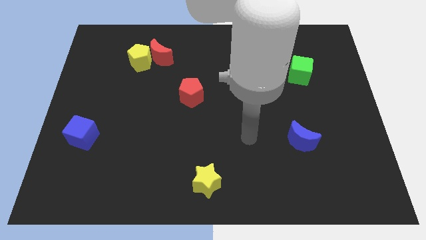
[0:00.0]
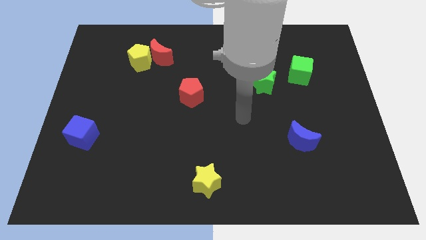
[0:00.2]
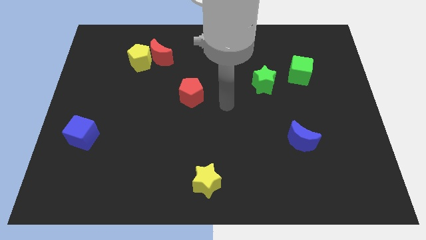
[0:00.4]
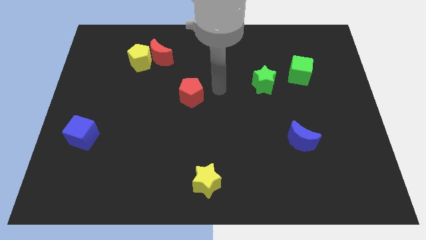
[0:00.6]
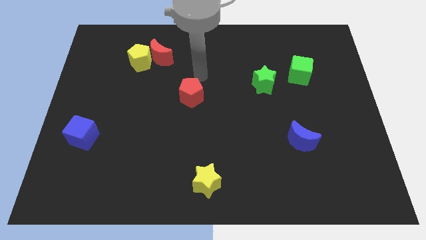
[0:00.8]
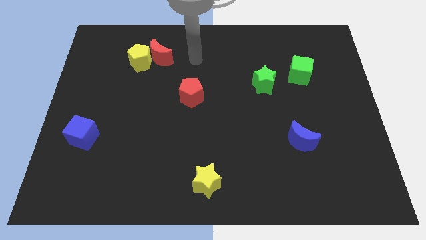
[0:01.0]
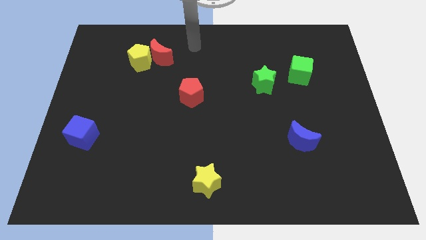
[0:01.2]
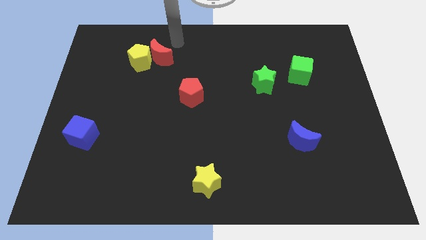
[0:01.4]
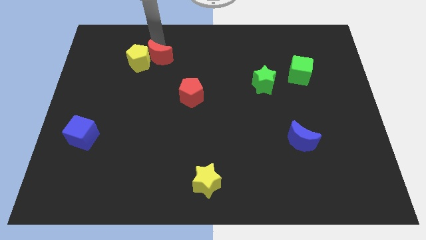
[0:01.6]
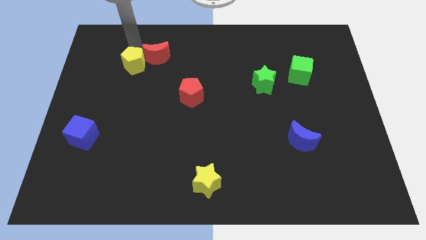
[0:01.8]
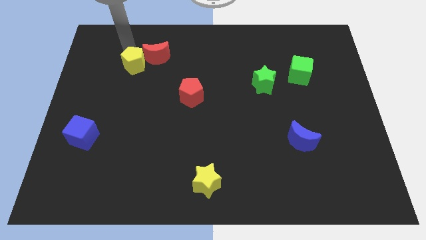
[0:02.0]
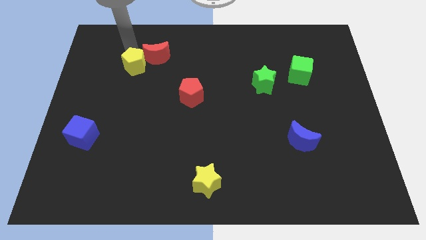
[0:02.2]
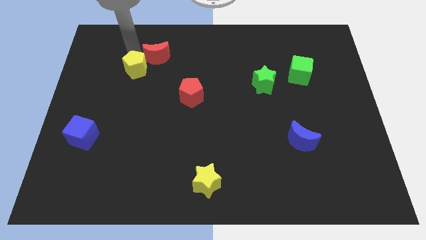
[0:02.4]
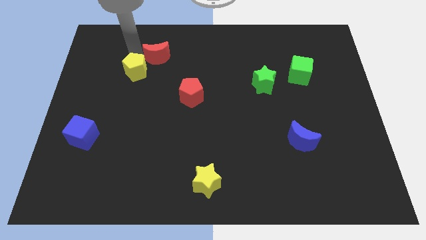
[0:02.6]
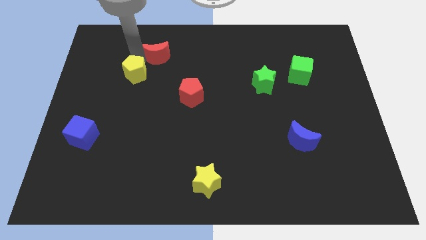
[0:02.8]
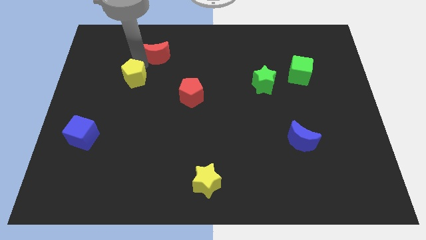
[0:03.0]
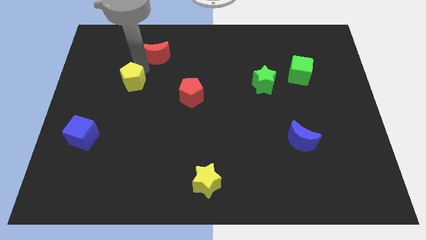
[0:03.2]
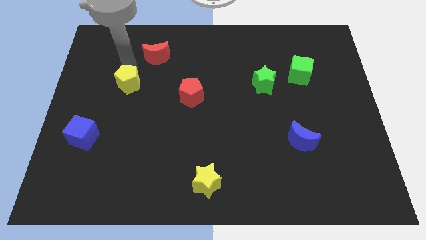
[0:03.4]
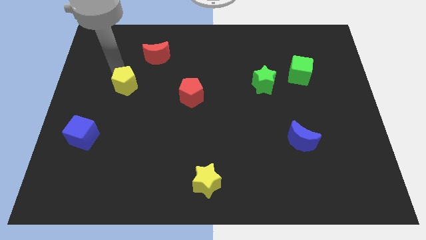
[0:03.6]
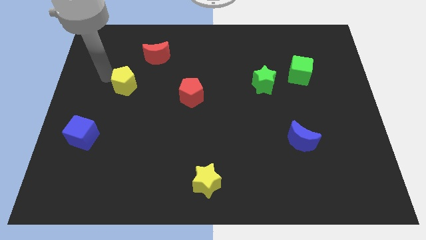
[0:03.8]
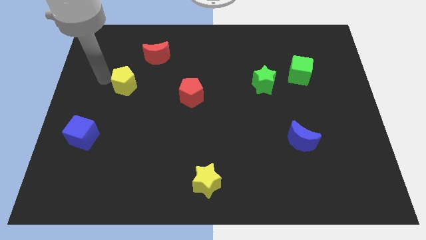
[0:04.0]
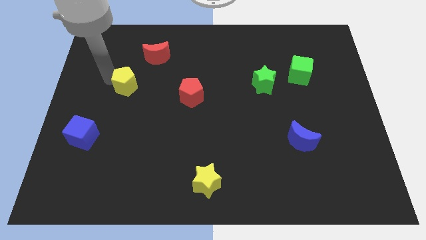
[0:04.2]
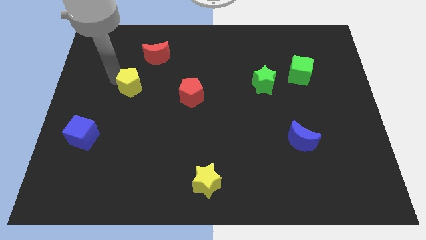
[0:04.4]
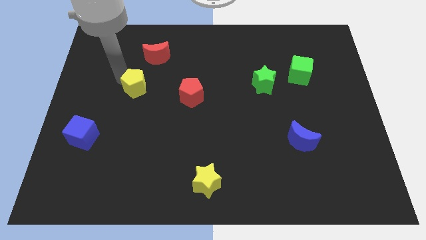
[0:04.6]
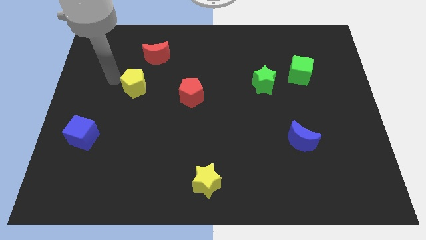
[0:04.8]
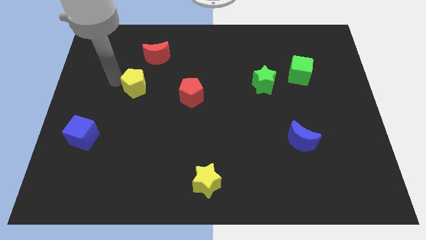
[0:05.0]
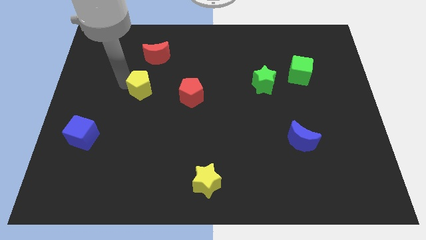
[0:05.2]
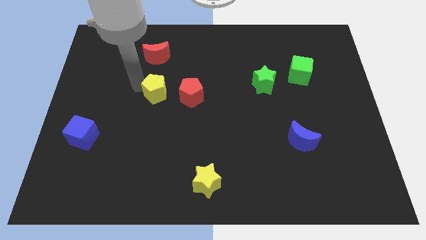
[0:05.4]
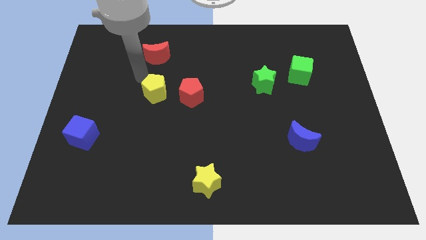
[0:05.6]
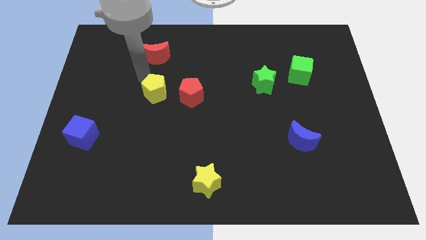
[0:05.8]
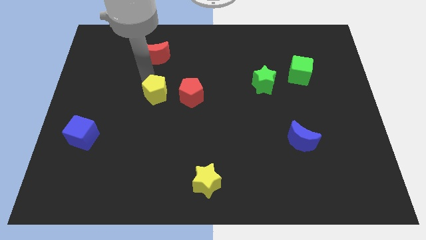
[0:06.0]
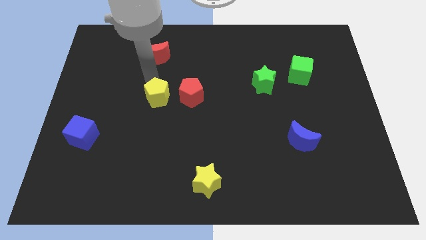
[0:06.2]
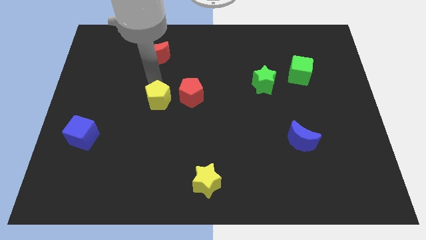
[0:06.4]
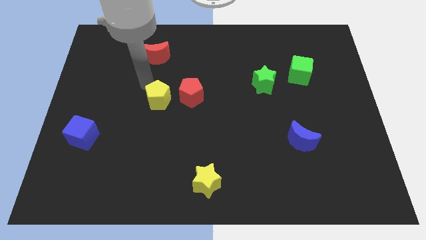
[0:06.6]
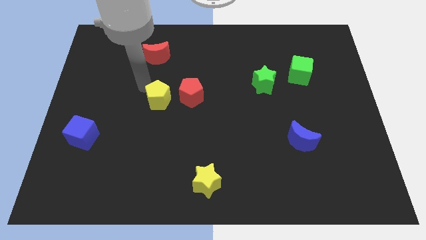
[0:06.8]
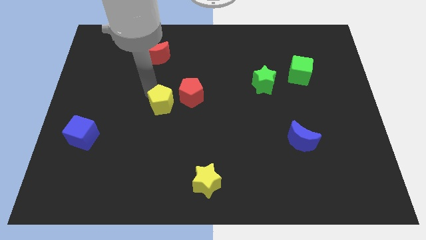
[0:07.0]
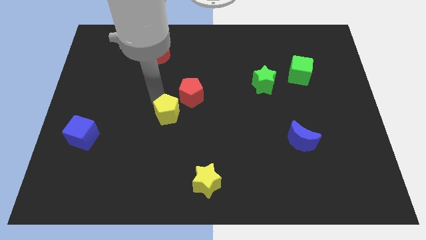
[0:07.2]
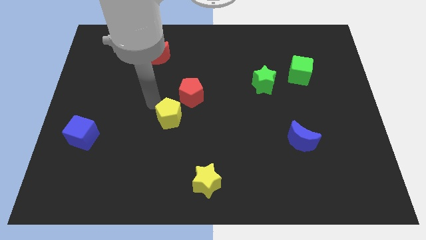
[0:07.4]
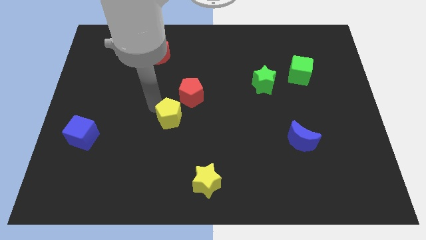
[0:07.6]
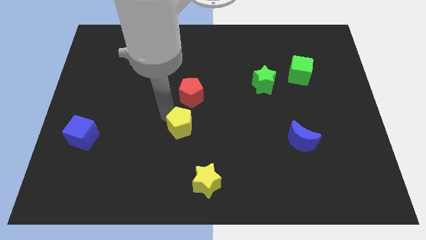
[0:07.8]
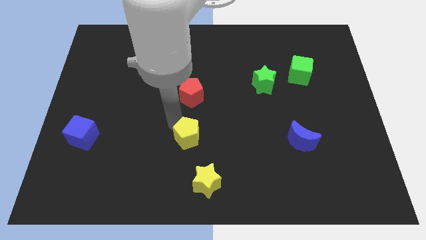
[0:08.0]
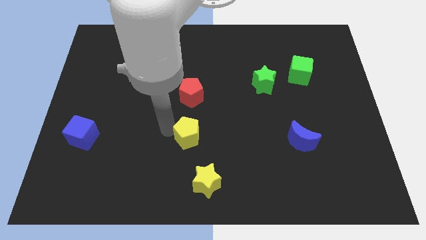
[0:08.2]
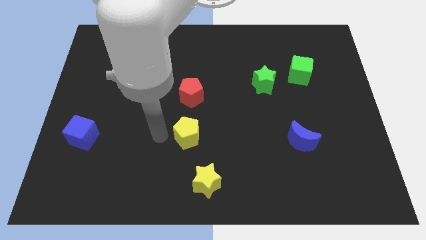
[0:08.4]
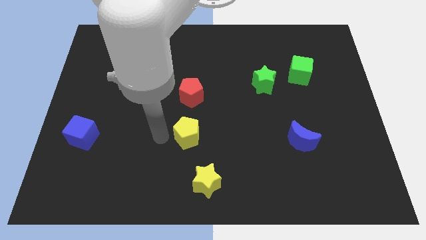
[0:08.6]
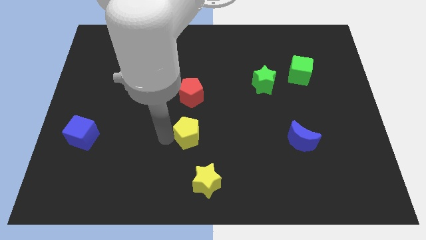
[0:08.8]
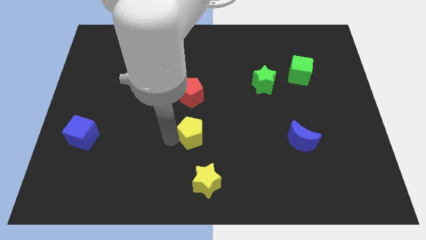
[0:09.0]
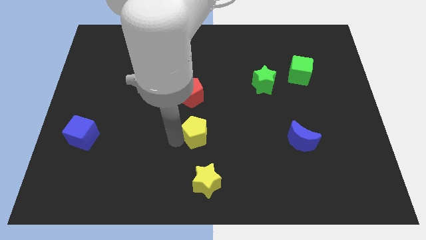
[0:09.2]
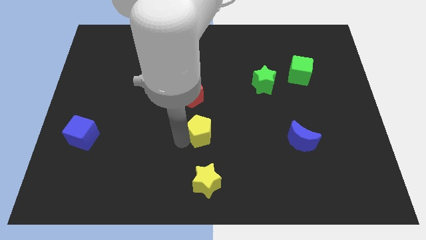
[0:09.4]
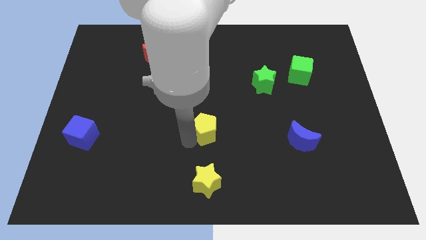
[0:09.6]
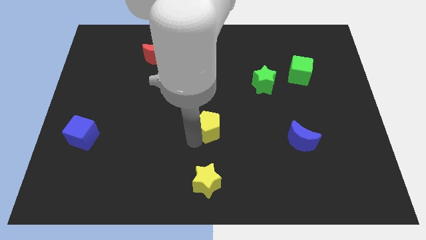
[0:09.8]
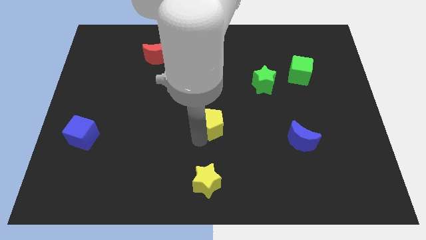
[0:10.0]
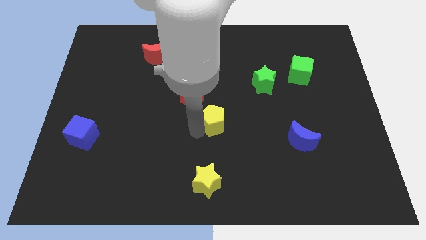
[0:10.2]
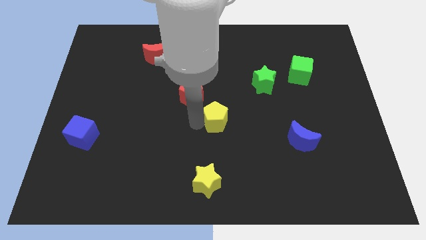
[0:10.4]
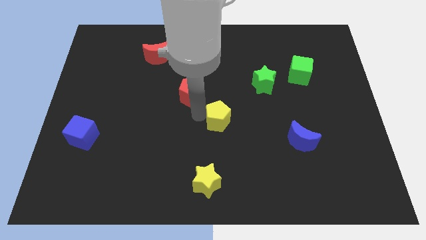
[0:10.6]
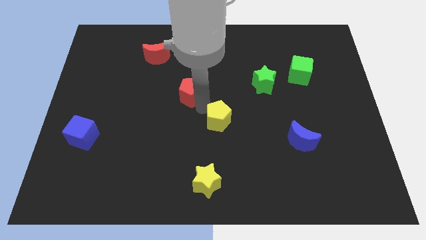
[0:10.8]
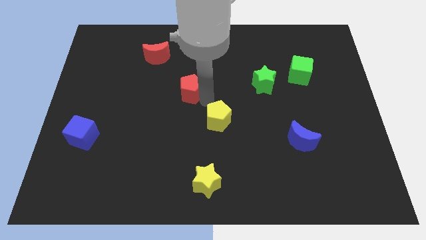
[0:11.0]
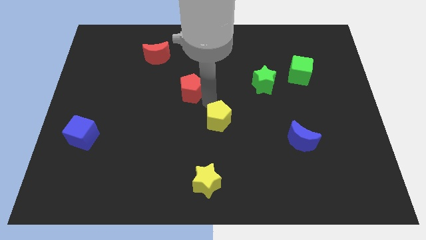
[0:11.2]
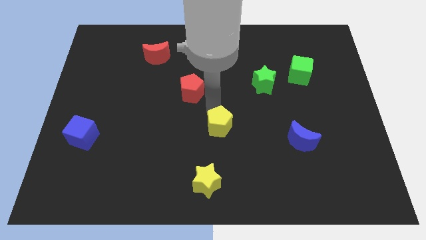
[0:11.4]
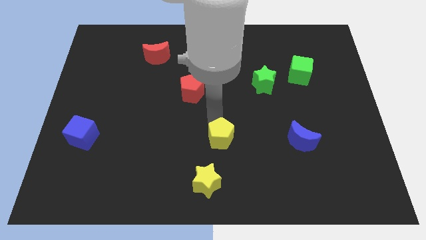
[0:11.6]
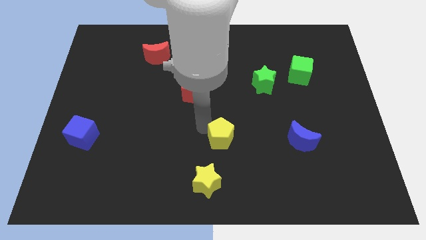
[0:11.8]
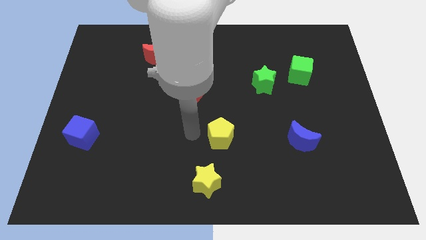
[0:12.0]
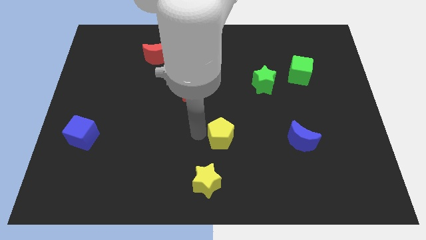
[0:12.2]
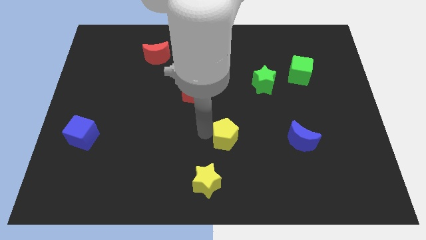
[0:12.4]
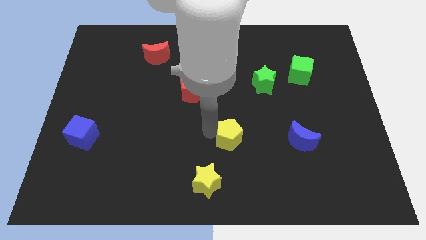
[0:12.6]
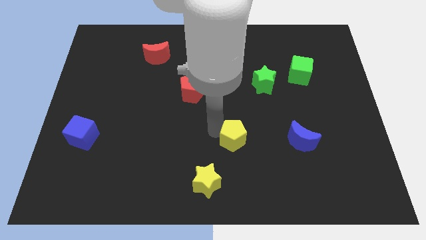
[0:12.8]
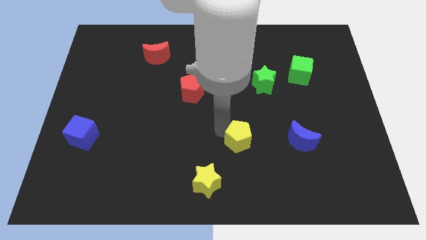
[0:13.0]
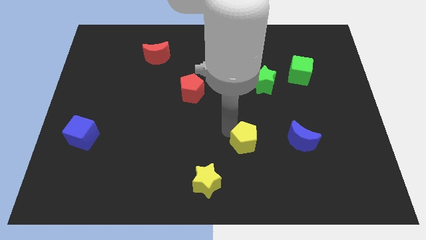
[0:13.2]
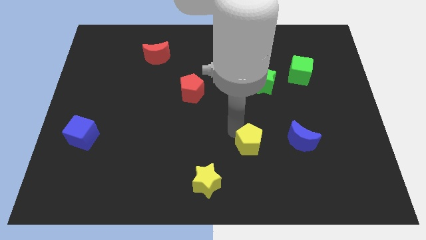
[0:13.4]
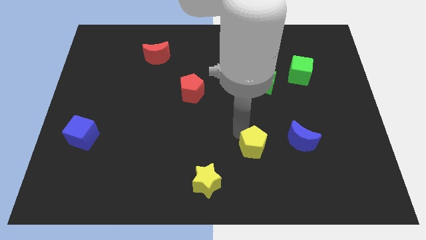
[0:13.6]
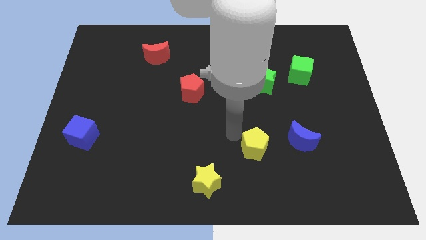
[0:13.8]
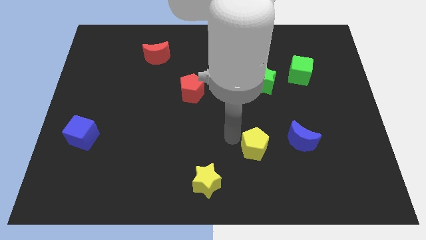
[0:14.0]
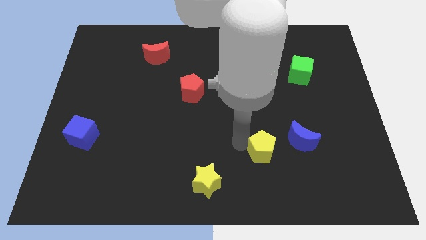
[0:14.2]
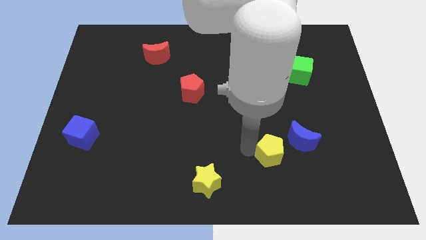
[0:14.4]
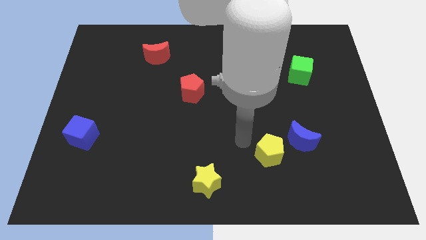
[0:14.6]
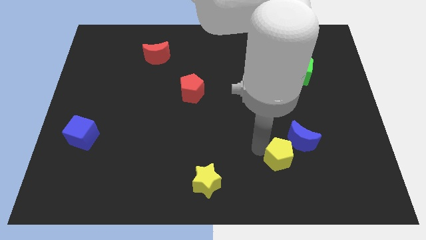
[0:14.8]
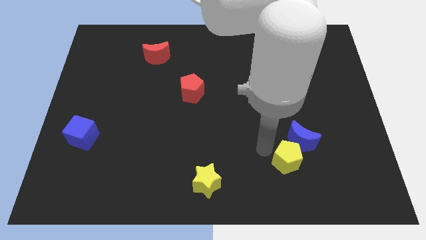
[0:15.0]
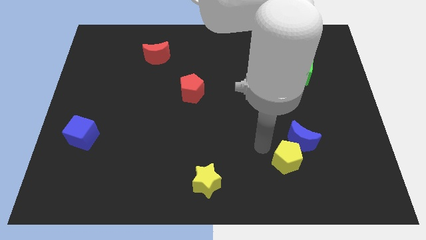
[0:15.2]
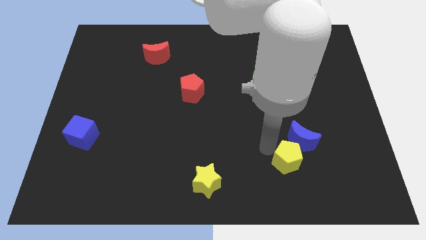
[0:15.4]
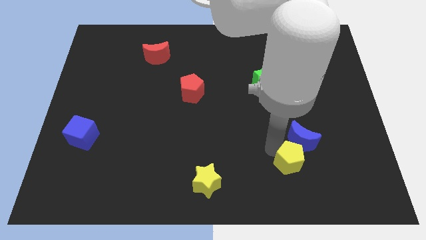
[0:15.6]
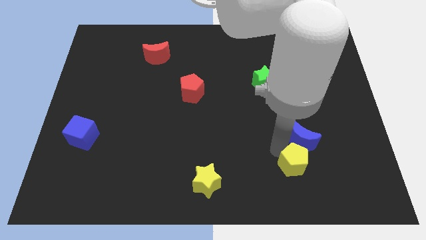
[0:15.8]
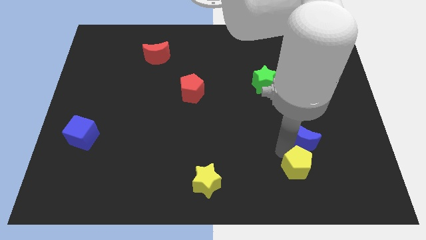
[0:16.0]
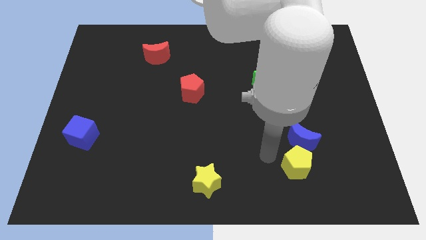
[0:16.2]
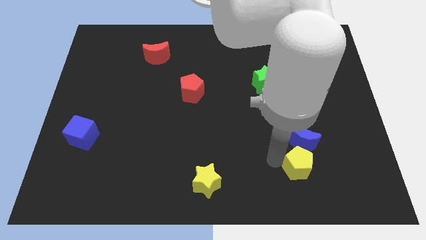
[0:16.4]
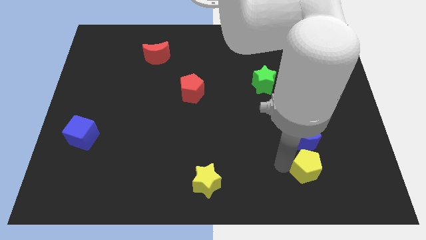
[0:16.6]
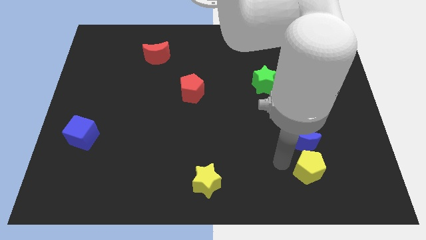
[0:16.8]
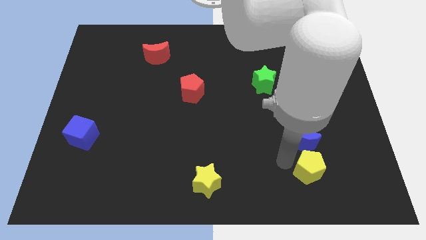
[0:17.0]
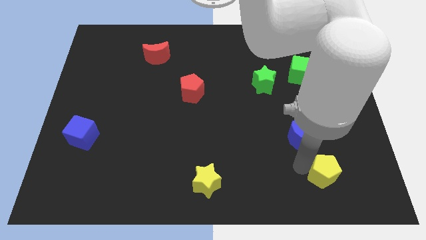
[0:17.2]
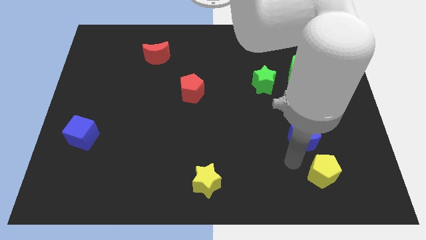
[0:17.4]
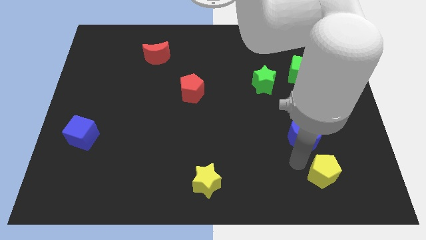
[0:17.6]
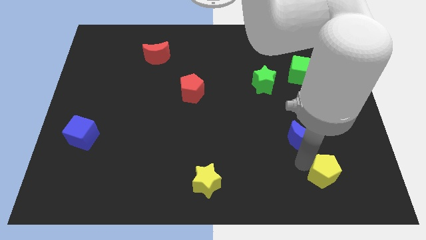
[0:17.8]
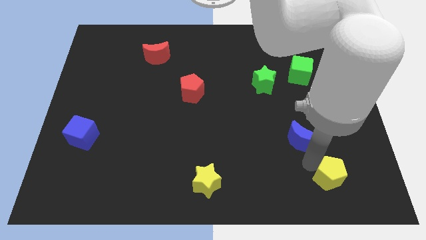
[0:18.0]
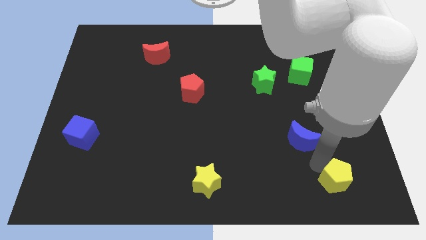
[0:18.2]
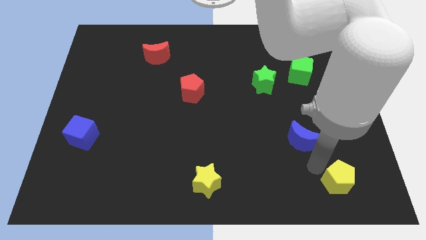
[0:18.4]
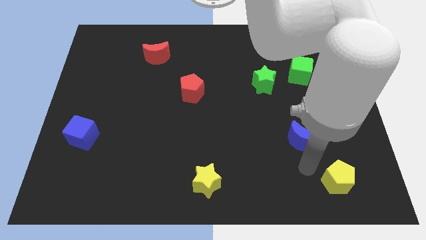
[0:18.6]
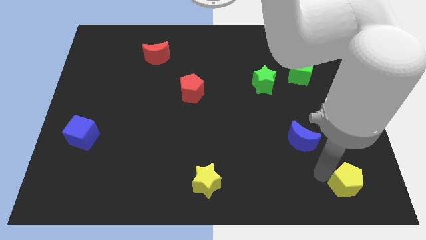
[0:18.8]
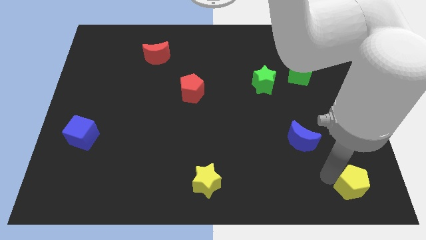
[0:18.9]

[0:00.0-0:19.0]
put the yellow pentagon to the bottom right
